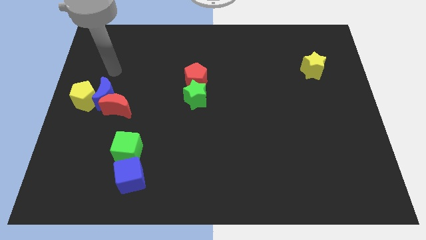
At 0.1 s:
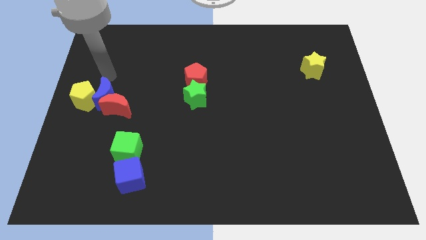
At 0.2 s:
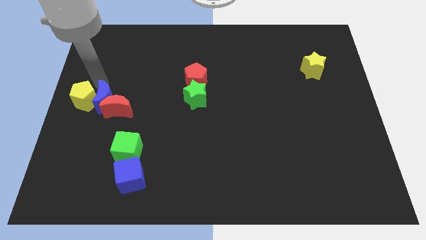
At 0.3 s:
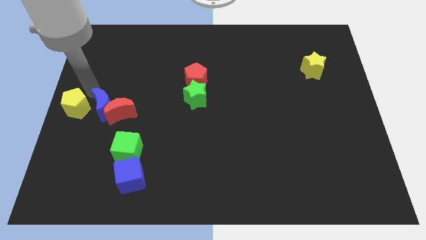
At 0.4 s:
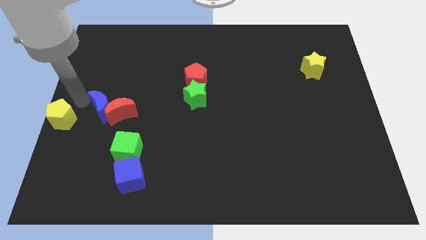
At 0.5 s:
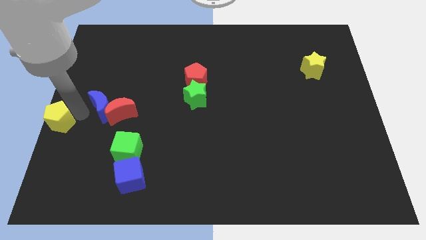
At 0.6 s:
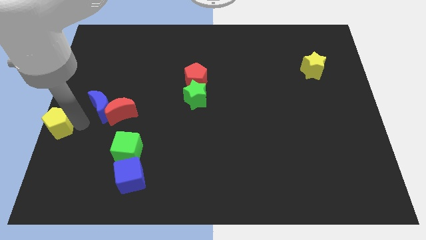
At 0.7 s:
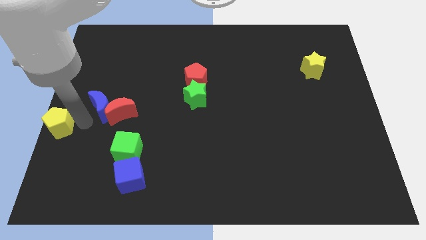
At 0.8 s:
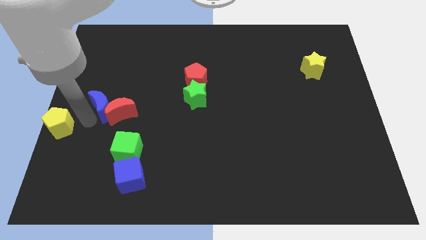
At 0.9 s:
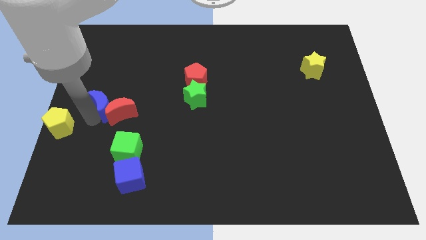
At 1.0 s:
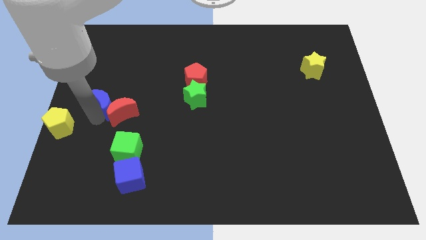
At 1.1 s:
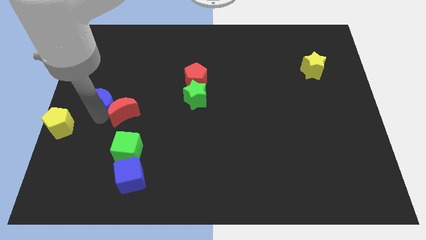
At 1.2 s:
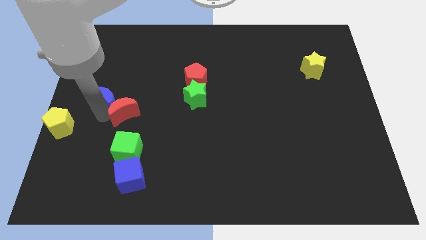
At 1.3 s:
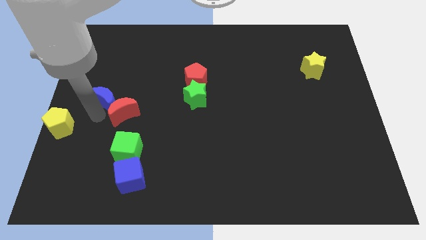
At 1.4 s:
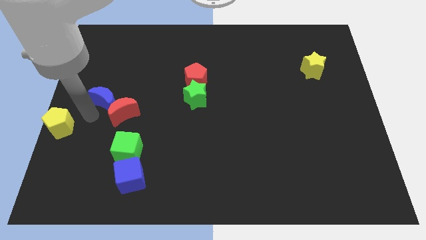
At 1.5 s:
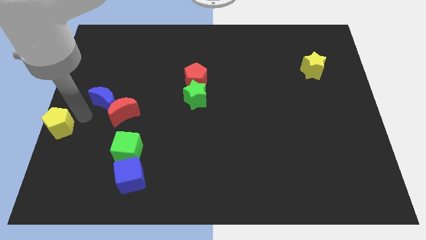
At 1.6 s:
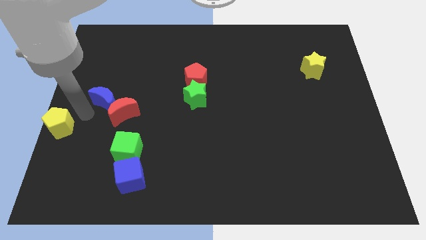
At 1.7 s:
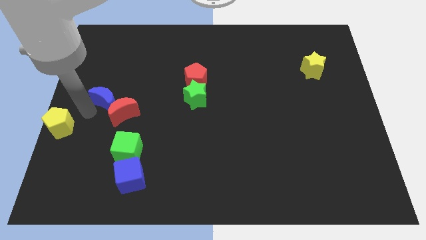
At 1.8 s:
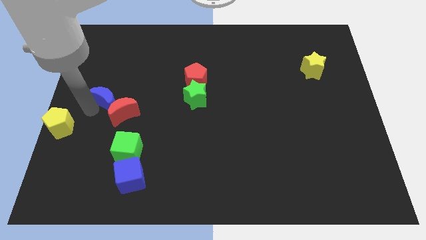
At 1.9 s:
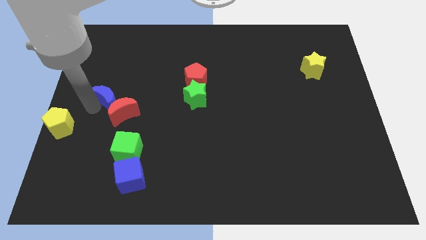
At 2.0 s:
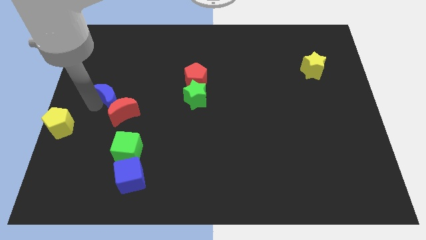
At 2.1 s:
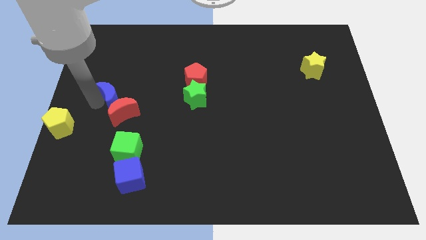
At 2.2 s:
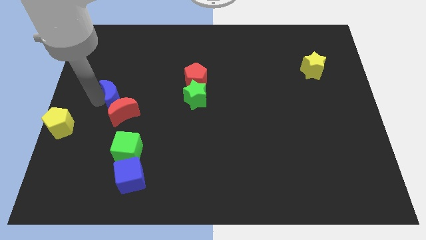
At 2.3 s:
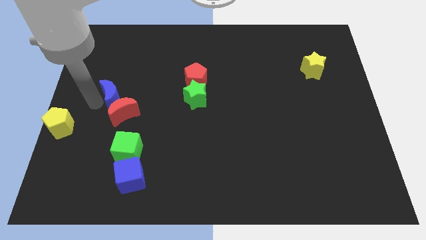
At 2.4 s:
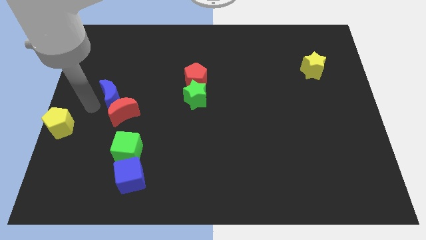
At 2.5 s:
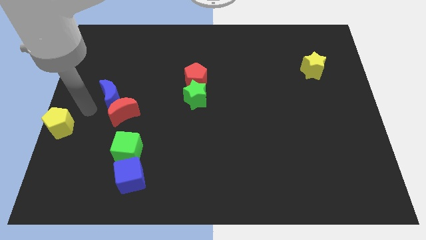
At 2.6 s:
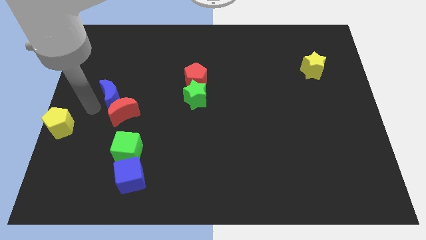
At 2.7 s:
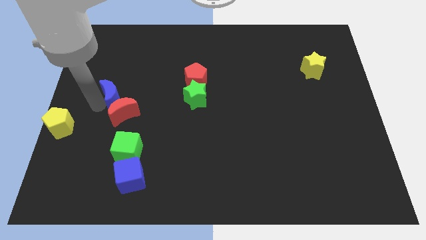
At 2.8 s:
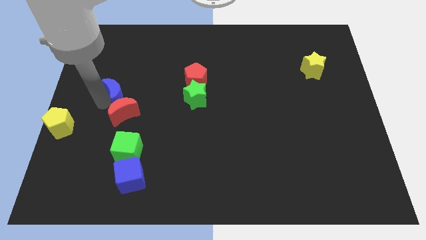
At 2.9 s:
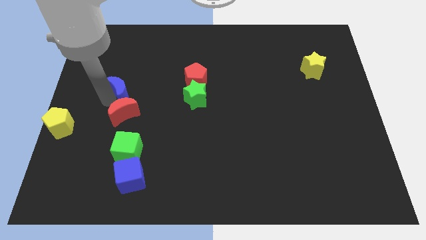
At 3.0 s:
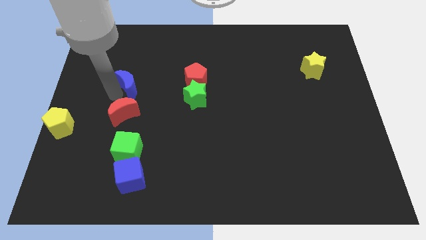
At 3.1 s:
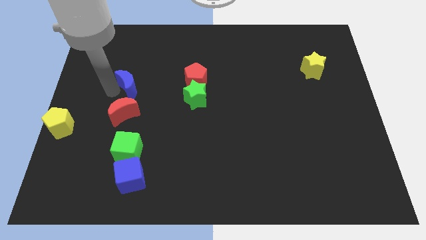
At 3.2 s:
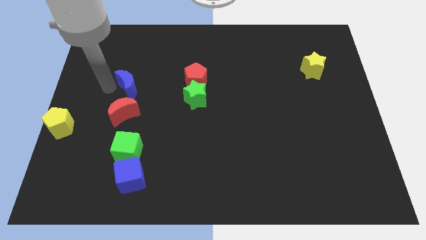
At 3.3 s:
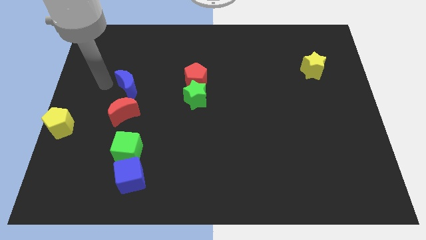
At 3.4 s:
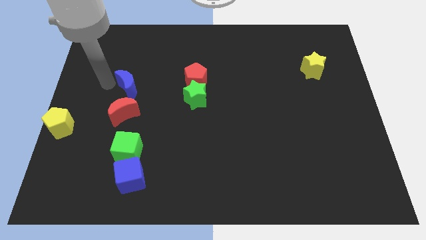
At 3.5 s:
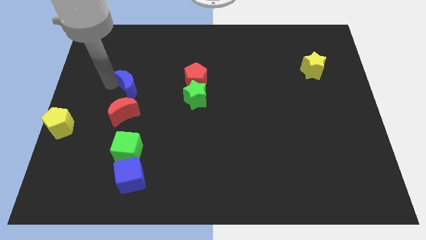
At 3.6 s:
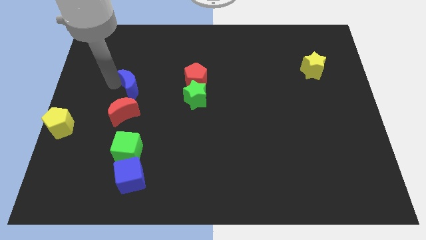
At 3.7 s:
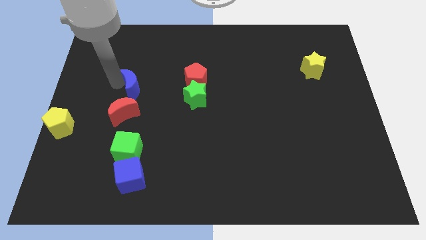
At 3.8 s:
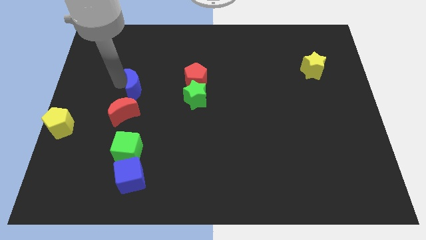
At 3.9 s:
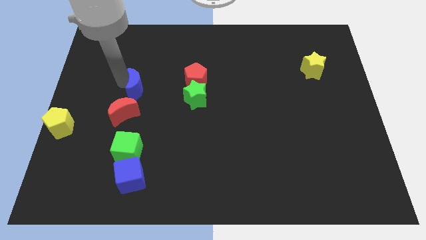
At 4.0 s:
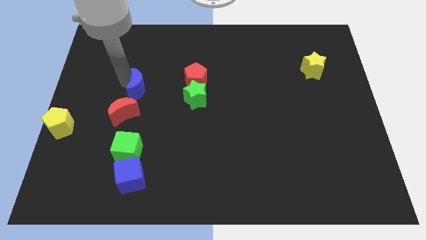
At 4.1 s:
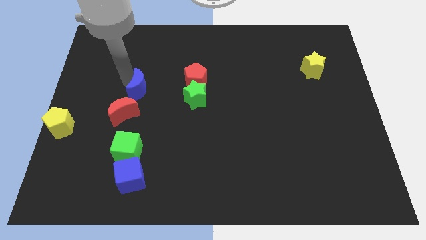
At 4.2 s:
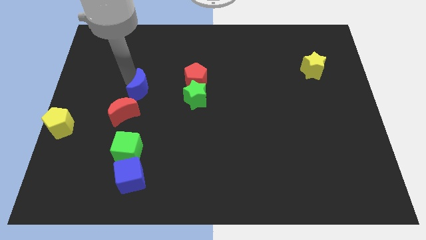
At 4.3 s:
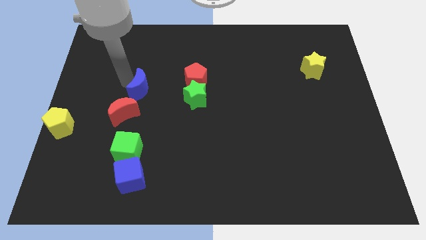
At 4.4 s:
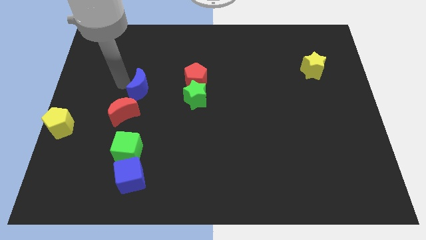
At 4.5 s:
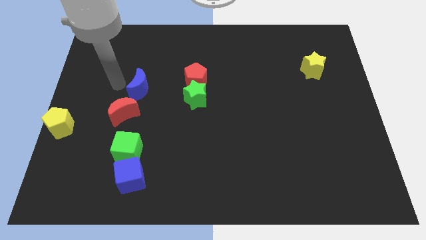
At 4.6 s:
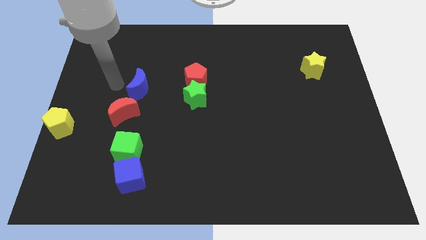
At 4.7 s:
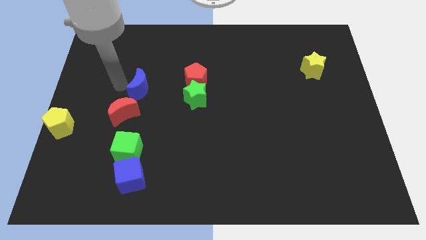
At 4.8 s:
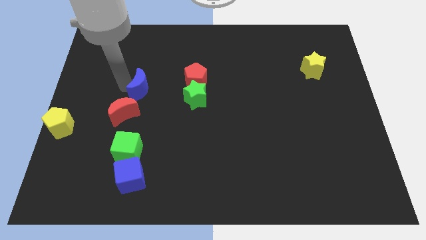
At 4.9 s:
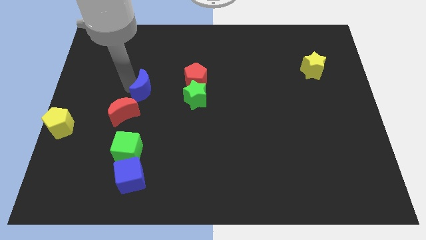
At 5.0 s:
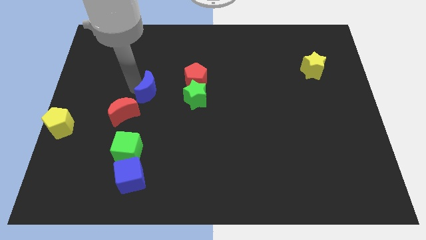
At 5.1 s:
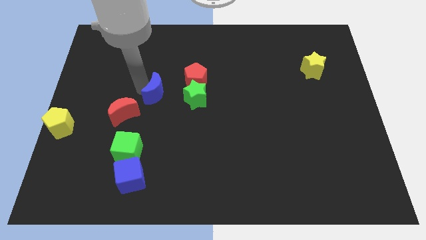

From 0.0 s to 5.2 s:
put the blue moon to the bottom left of the red pentagon

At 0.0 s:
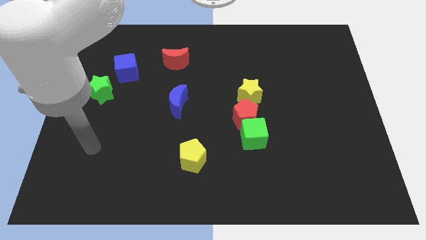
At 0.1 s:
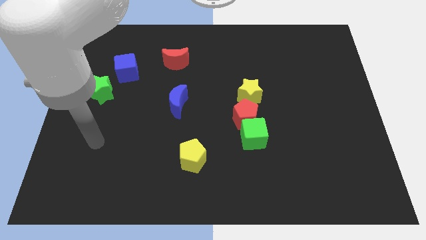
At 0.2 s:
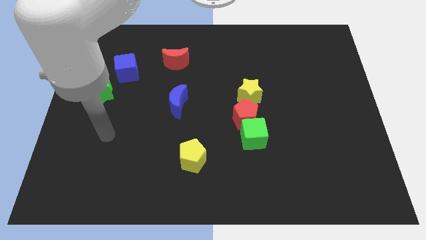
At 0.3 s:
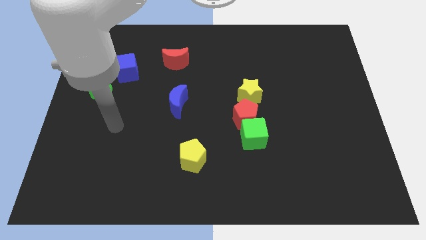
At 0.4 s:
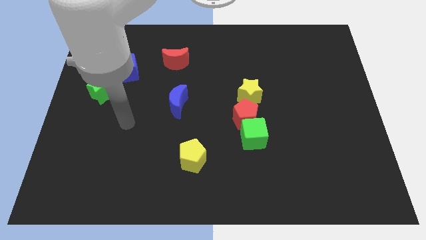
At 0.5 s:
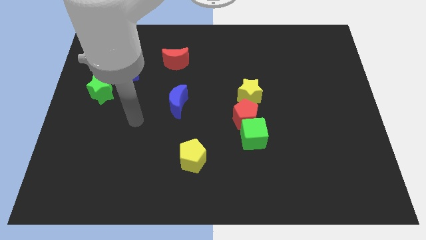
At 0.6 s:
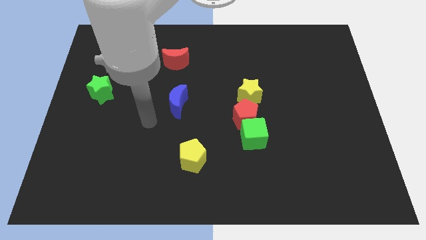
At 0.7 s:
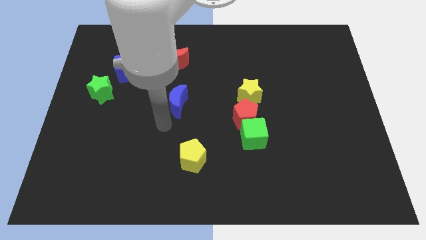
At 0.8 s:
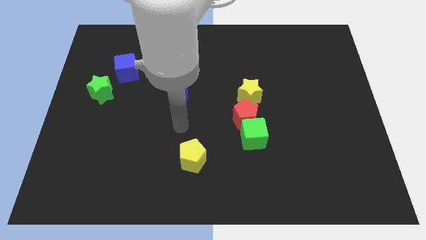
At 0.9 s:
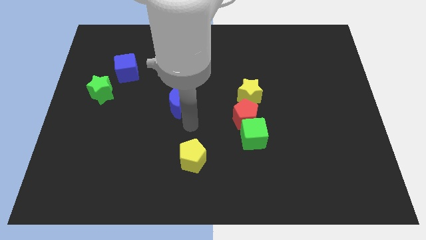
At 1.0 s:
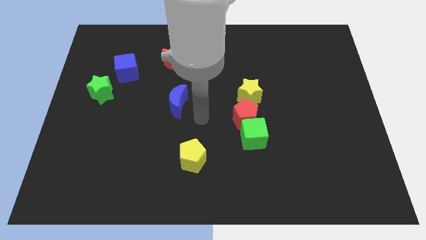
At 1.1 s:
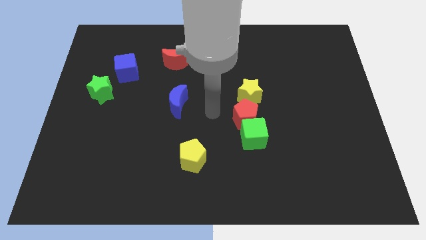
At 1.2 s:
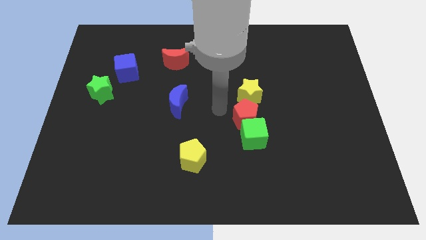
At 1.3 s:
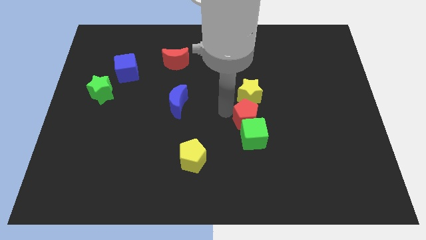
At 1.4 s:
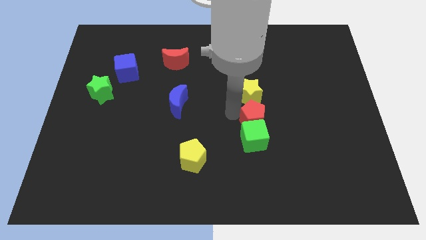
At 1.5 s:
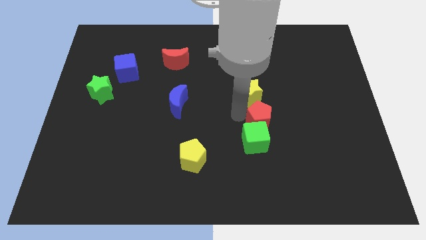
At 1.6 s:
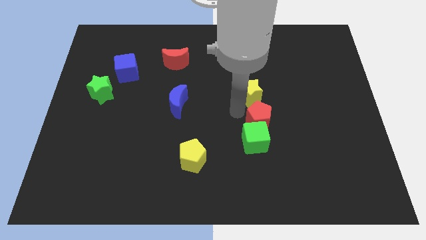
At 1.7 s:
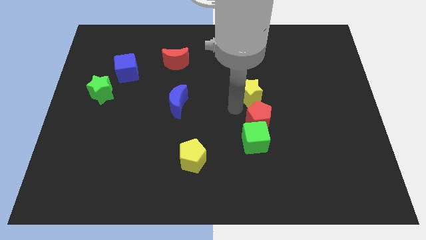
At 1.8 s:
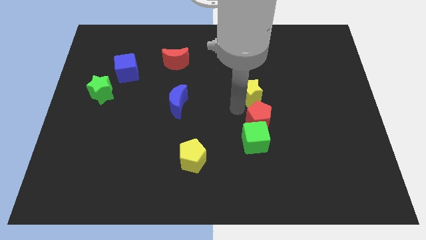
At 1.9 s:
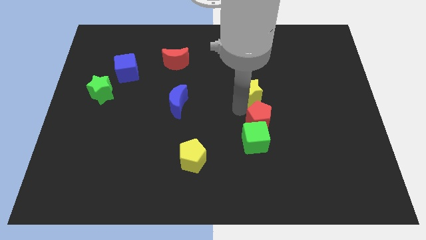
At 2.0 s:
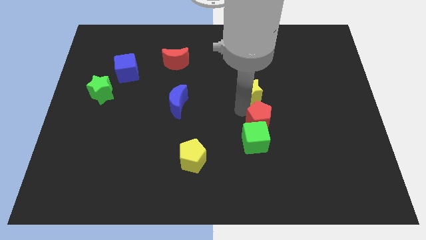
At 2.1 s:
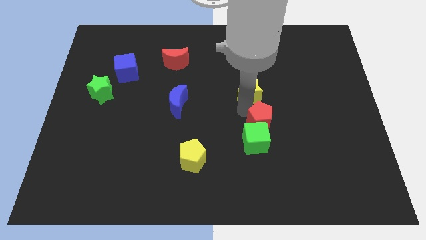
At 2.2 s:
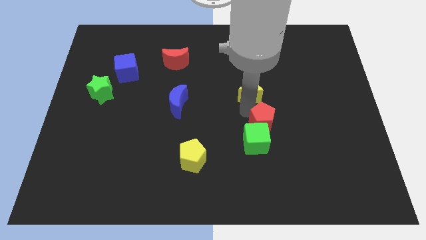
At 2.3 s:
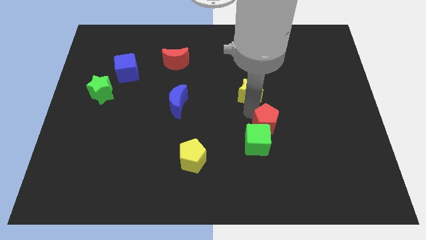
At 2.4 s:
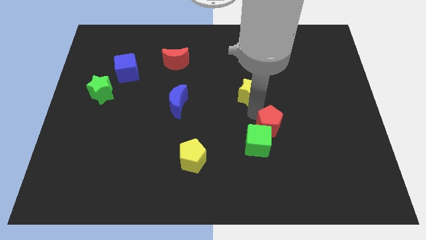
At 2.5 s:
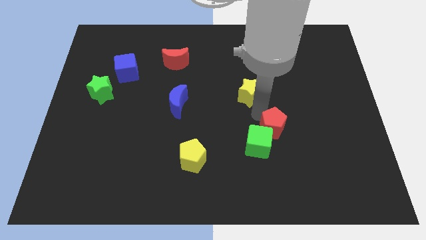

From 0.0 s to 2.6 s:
push the red pentagon to the right side of the green cube
